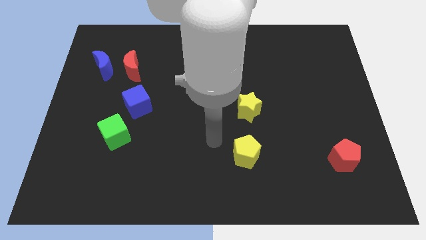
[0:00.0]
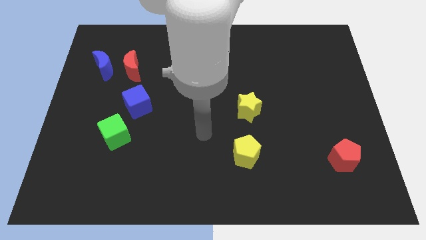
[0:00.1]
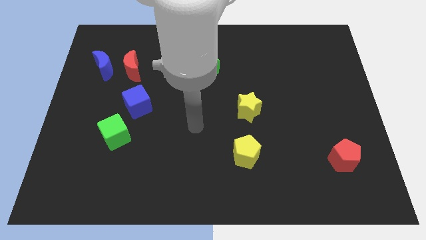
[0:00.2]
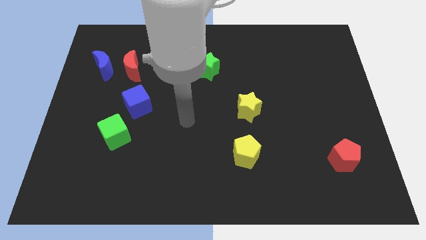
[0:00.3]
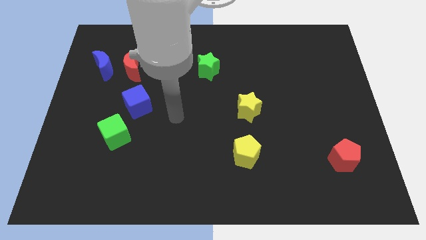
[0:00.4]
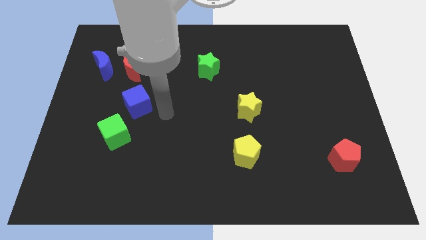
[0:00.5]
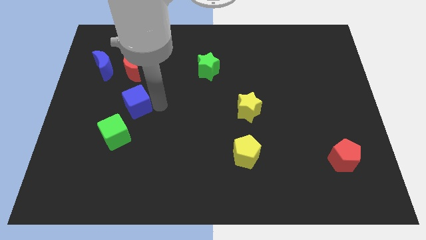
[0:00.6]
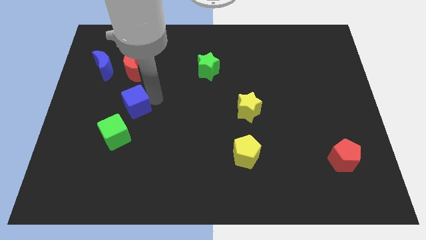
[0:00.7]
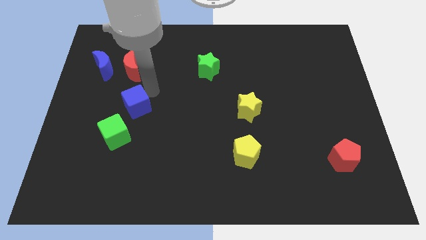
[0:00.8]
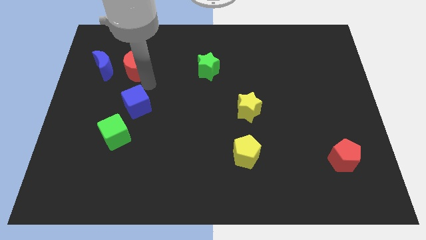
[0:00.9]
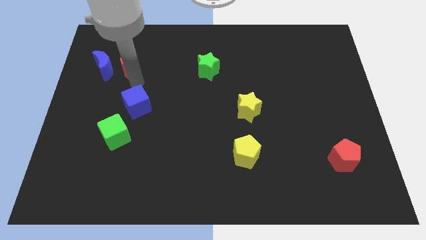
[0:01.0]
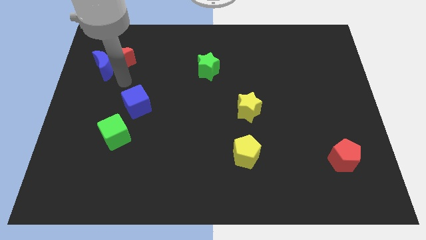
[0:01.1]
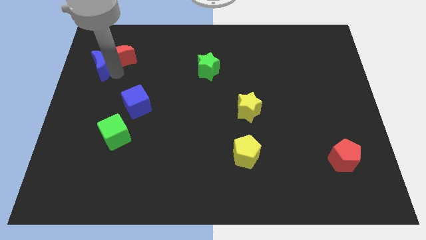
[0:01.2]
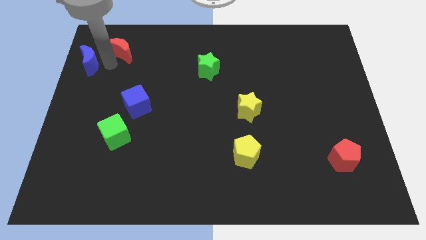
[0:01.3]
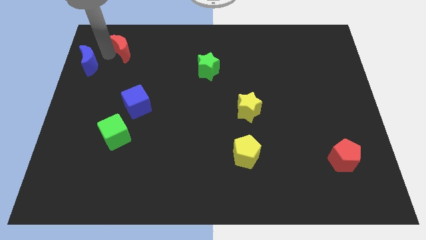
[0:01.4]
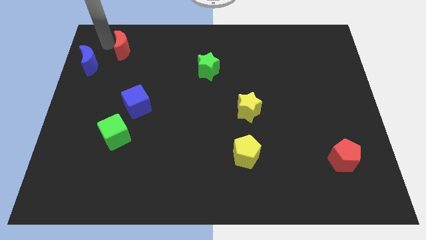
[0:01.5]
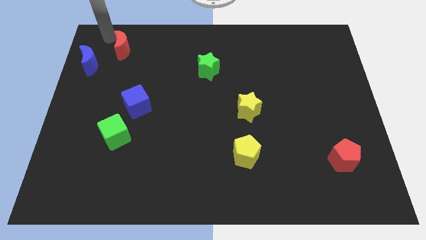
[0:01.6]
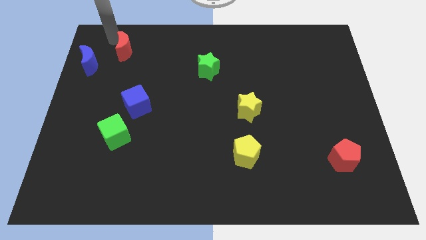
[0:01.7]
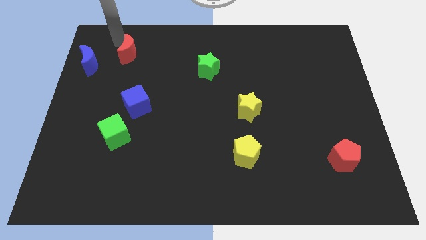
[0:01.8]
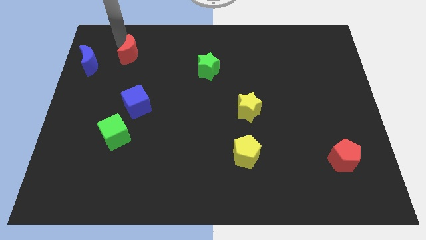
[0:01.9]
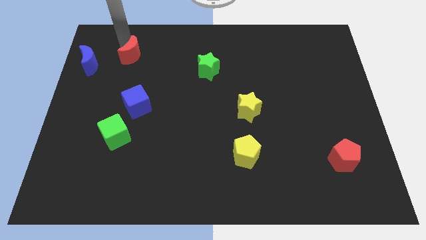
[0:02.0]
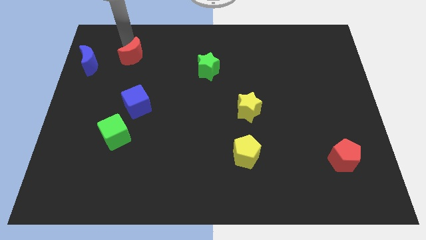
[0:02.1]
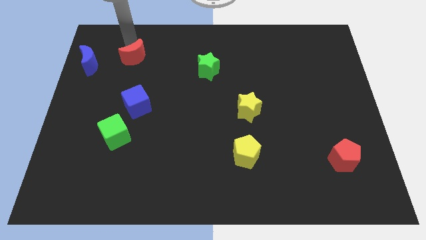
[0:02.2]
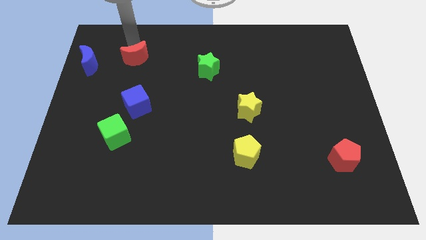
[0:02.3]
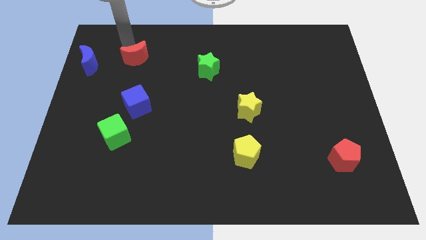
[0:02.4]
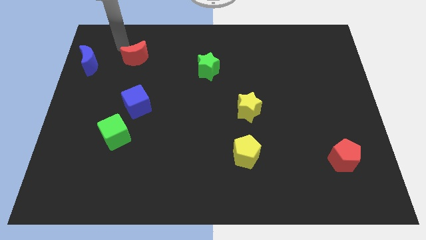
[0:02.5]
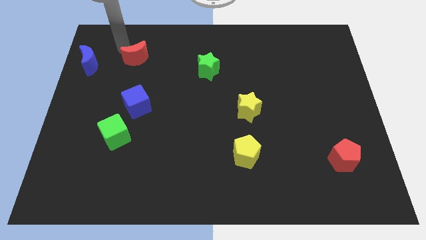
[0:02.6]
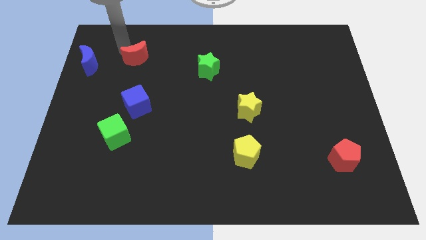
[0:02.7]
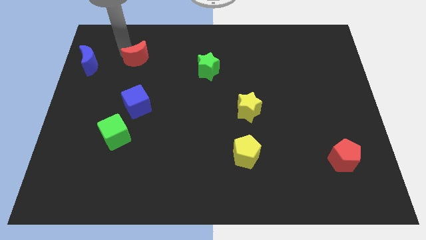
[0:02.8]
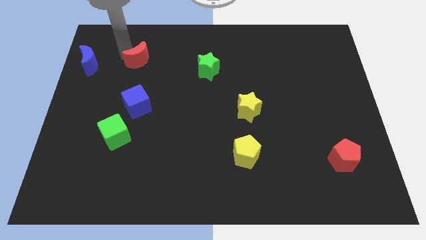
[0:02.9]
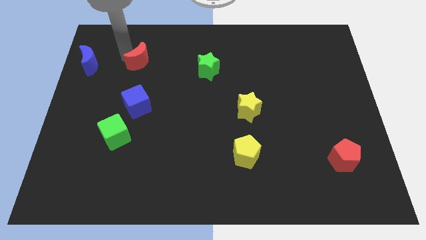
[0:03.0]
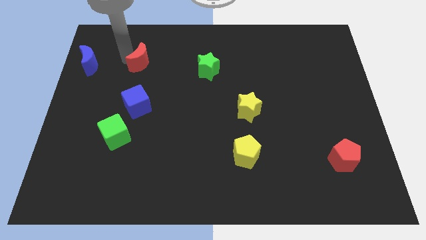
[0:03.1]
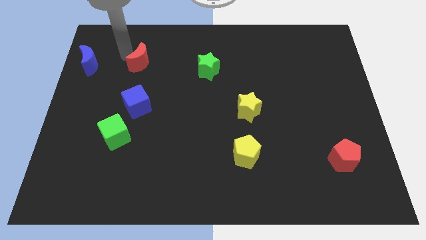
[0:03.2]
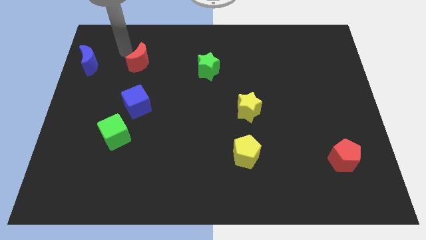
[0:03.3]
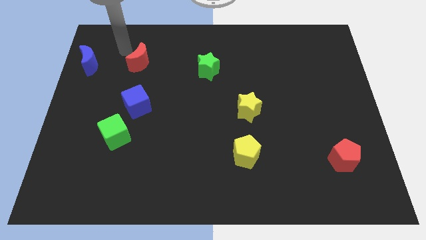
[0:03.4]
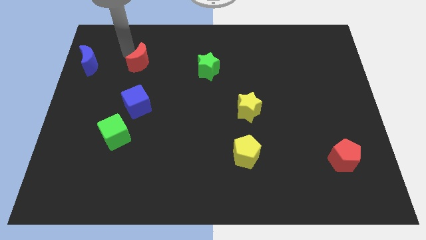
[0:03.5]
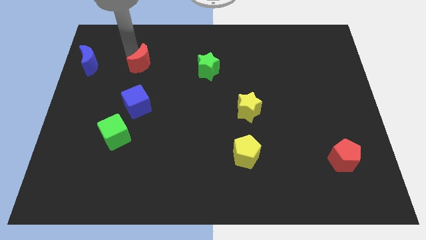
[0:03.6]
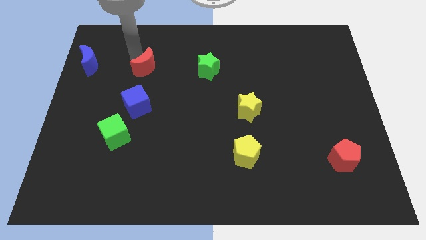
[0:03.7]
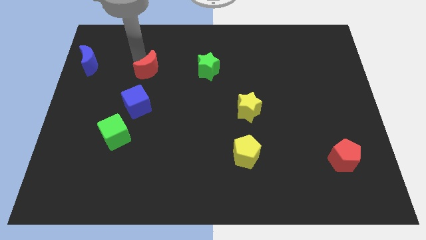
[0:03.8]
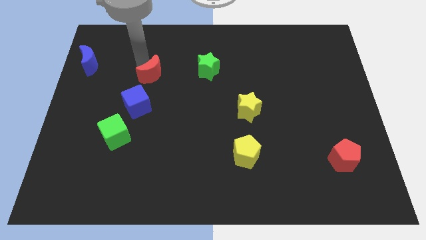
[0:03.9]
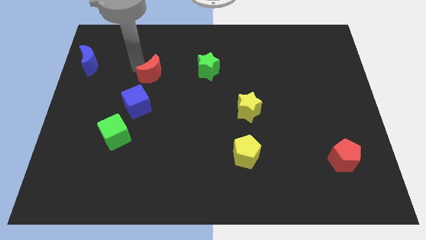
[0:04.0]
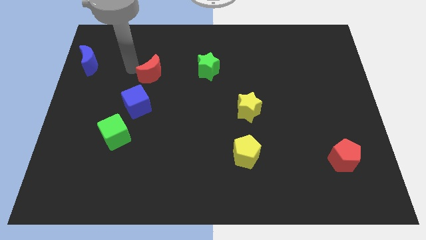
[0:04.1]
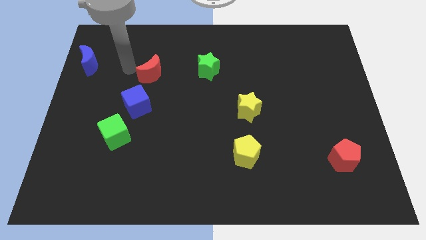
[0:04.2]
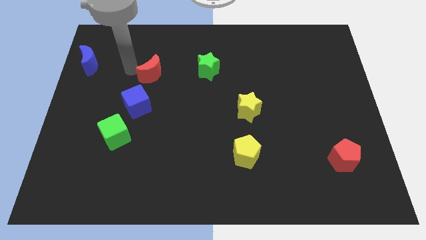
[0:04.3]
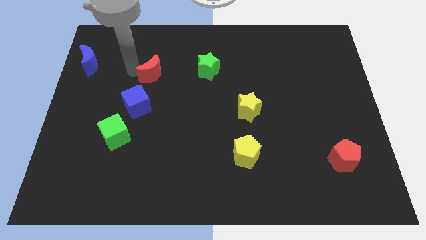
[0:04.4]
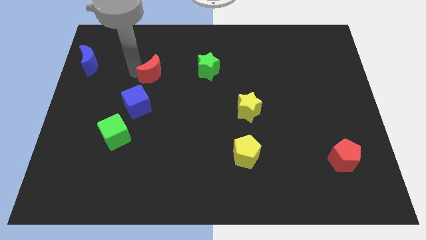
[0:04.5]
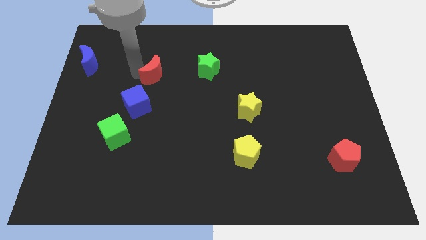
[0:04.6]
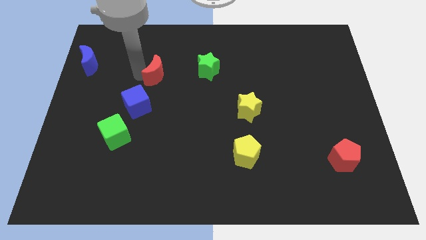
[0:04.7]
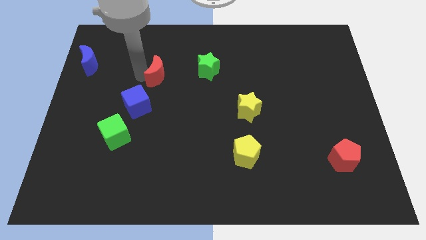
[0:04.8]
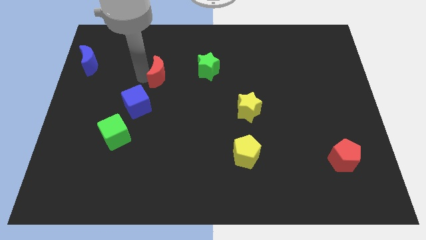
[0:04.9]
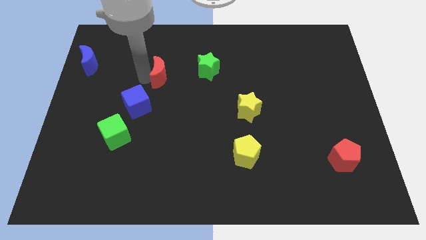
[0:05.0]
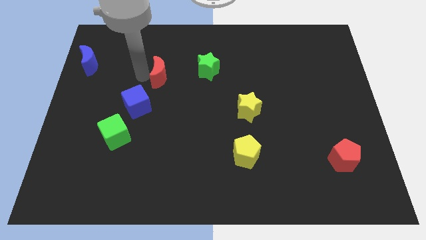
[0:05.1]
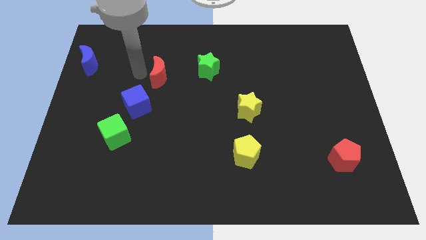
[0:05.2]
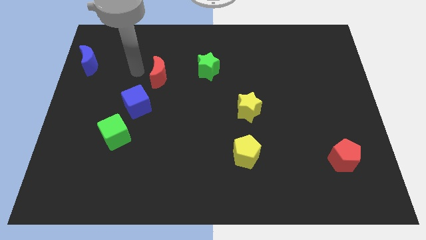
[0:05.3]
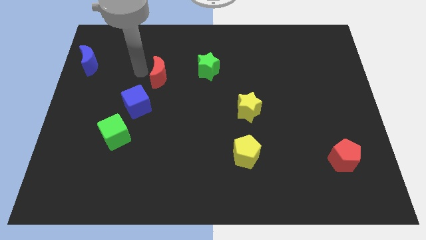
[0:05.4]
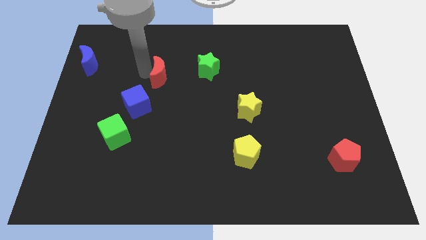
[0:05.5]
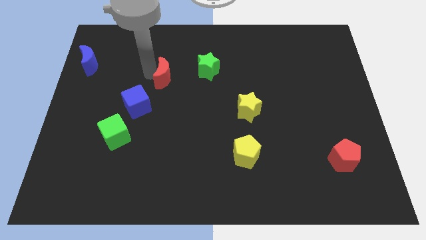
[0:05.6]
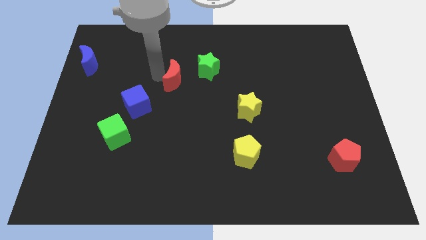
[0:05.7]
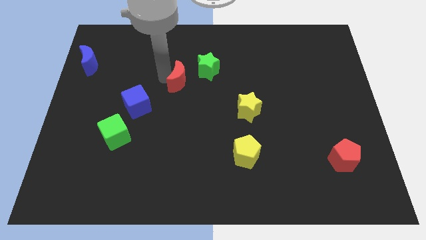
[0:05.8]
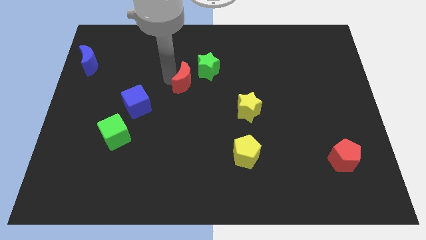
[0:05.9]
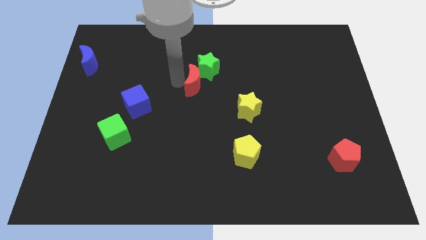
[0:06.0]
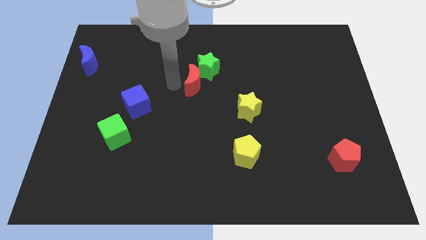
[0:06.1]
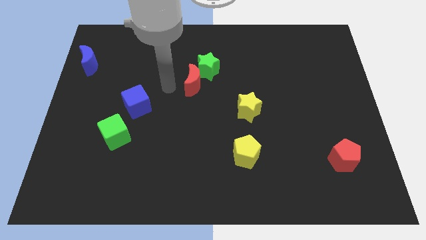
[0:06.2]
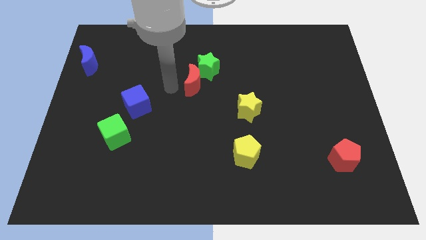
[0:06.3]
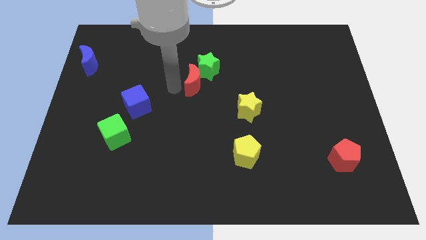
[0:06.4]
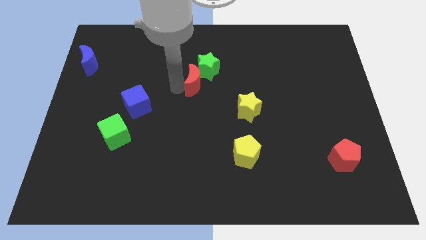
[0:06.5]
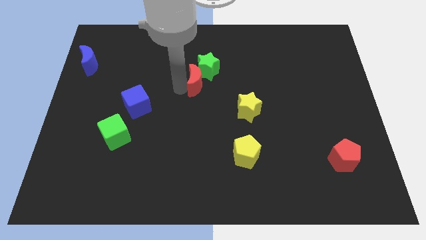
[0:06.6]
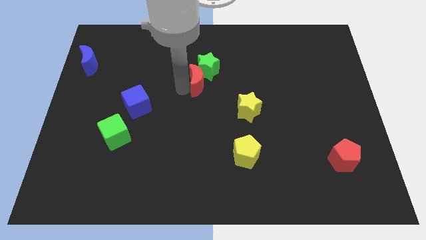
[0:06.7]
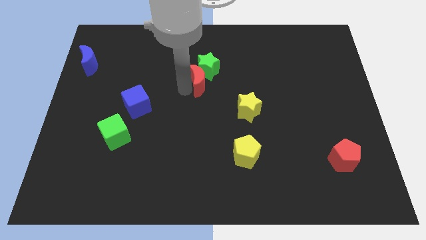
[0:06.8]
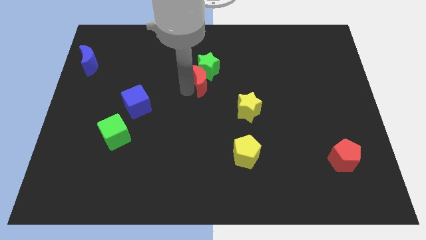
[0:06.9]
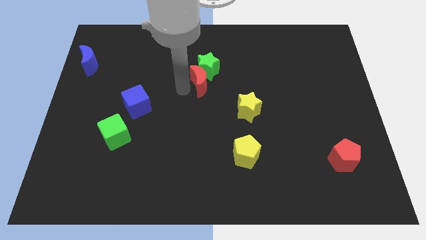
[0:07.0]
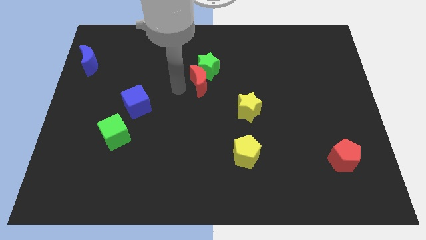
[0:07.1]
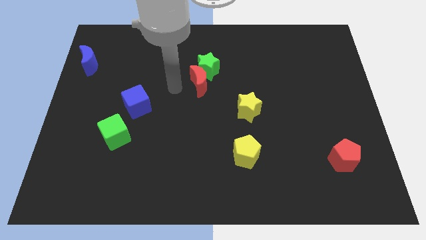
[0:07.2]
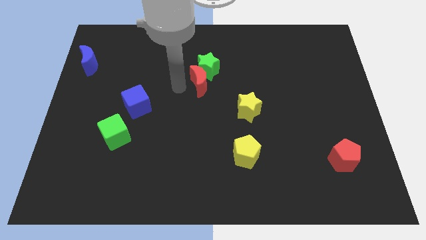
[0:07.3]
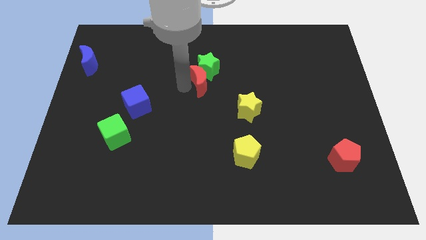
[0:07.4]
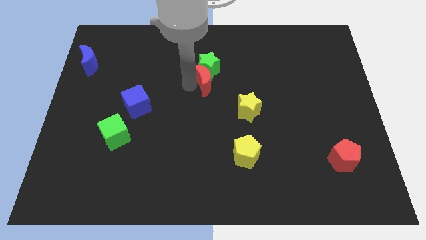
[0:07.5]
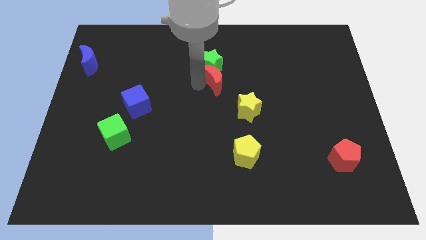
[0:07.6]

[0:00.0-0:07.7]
move the red moon to the right

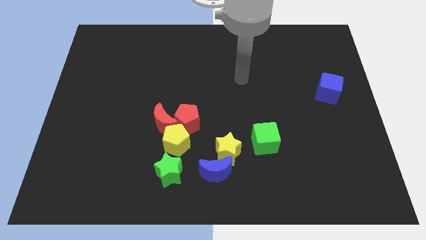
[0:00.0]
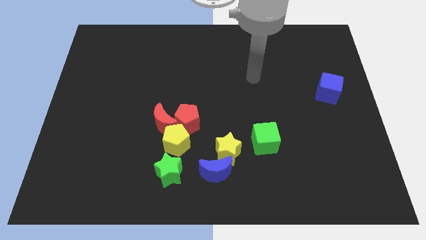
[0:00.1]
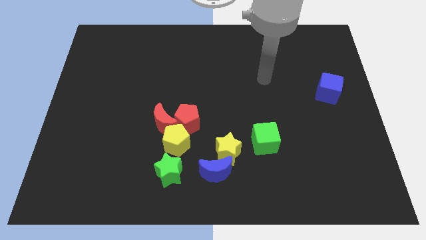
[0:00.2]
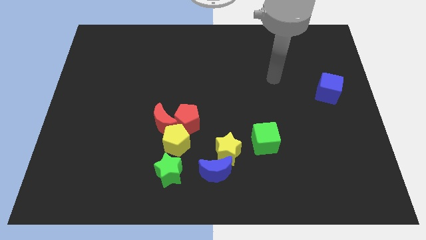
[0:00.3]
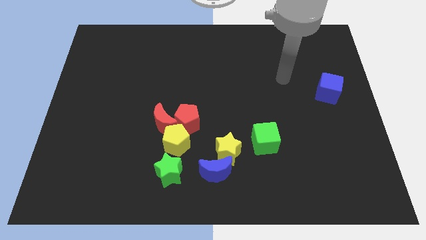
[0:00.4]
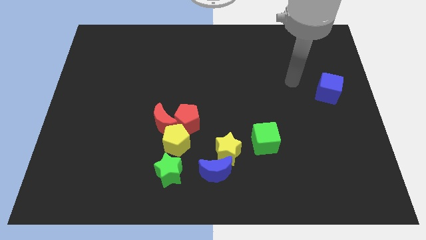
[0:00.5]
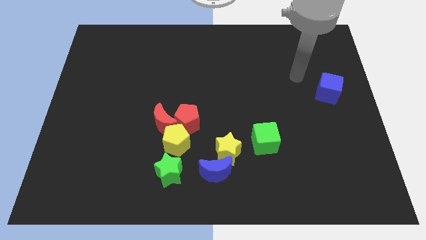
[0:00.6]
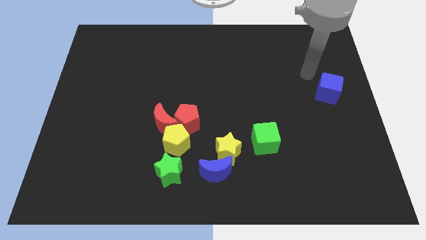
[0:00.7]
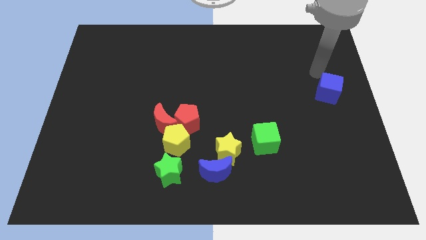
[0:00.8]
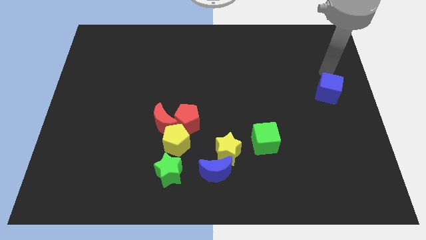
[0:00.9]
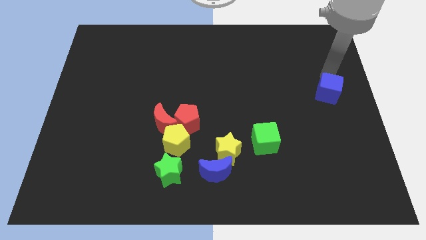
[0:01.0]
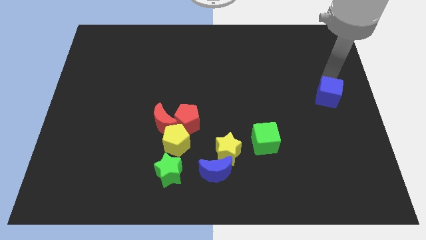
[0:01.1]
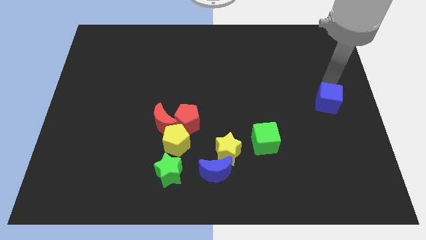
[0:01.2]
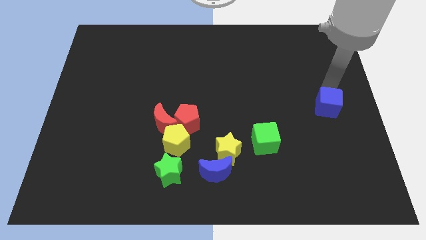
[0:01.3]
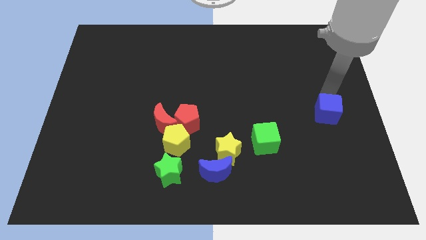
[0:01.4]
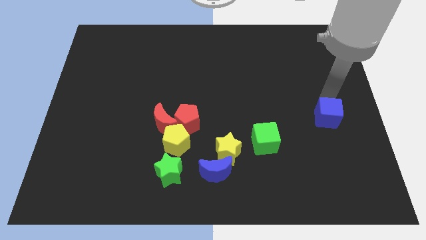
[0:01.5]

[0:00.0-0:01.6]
slide the blue cube down slightly
